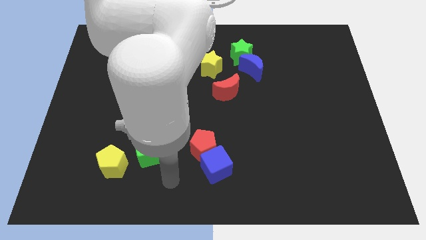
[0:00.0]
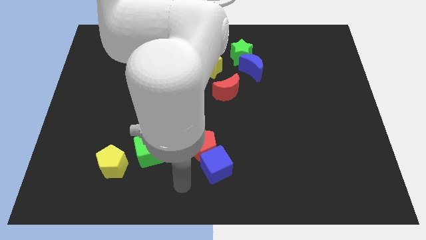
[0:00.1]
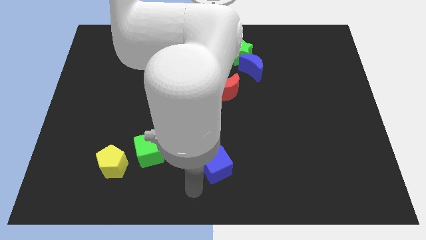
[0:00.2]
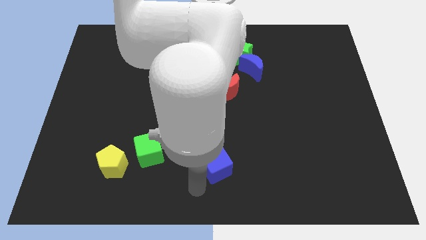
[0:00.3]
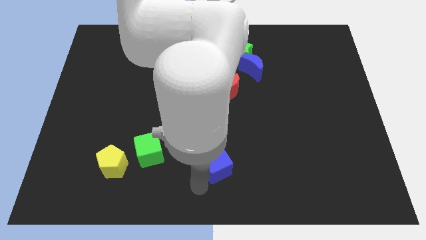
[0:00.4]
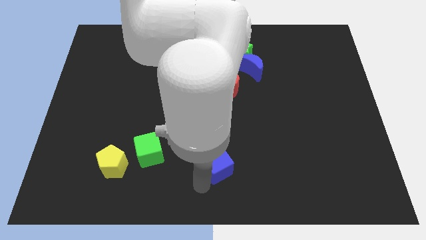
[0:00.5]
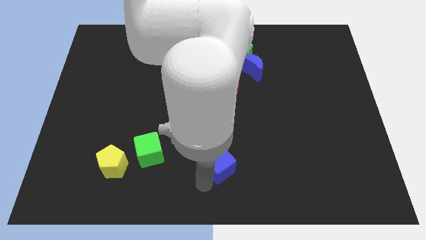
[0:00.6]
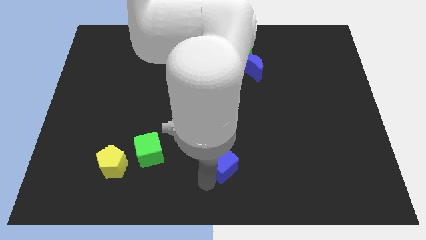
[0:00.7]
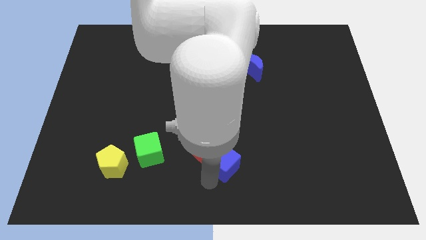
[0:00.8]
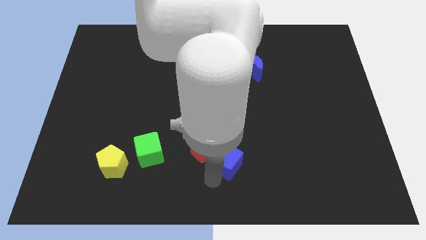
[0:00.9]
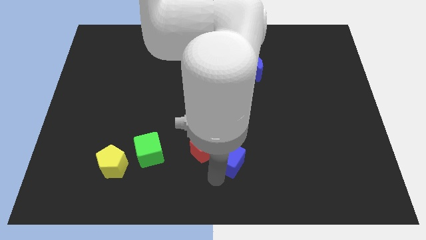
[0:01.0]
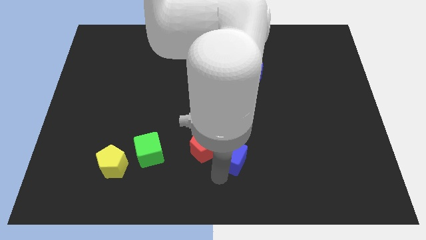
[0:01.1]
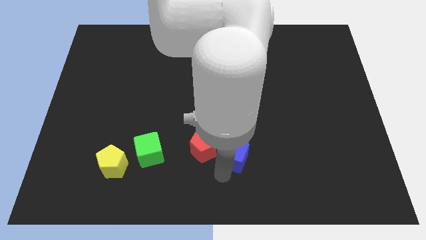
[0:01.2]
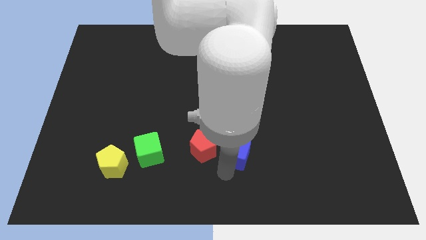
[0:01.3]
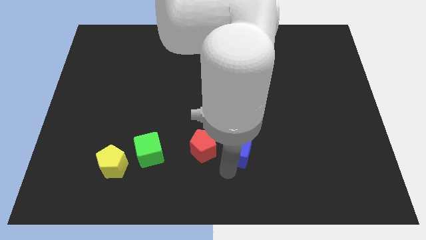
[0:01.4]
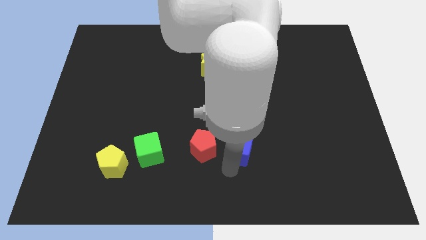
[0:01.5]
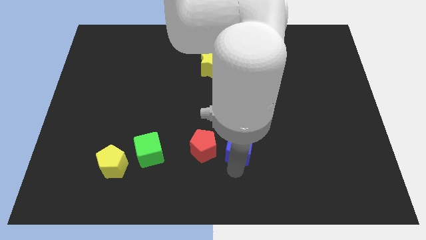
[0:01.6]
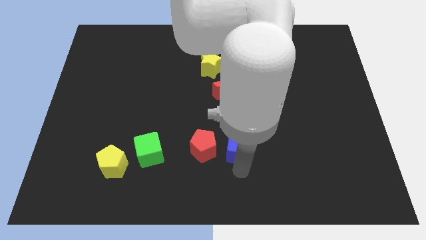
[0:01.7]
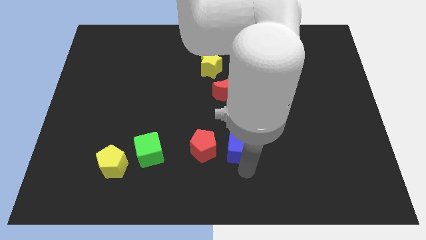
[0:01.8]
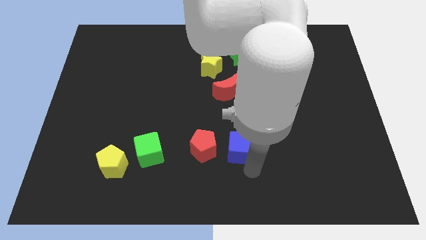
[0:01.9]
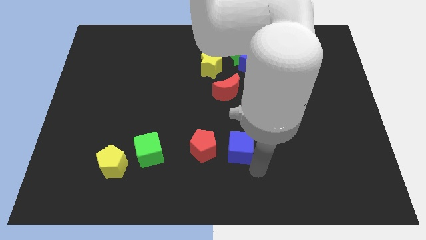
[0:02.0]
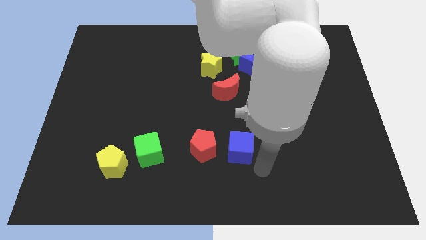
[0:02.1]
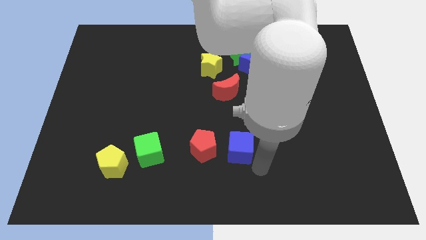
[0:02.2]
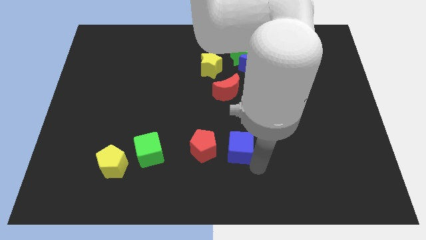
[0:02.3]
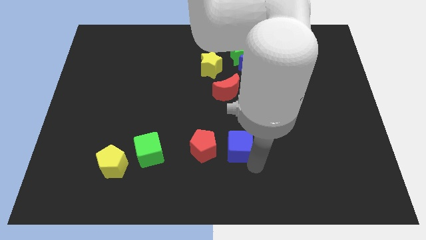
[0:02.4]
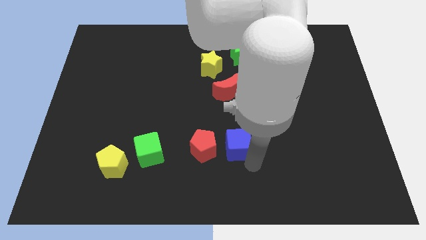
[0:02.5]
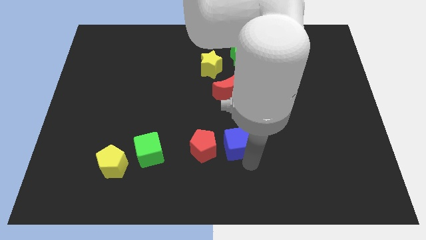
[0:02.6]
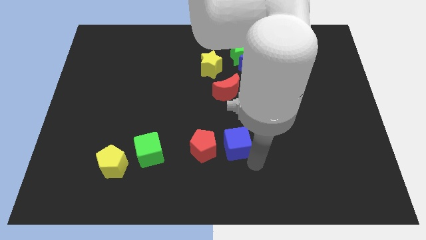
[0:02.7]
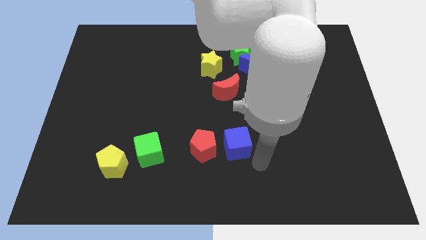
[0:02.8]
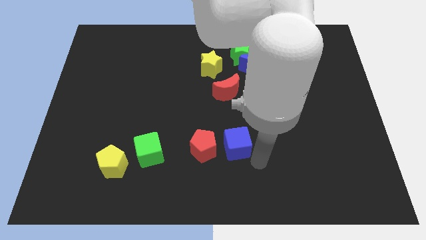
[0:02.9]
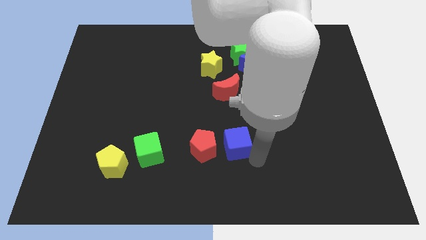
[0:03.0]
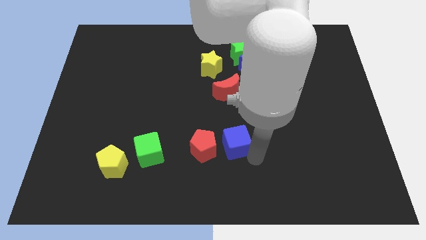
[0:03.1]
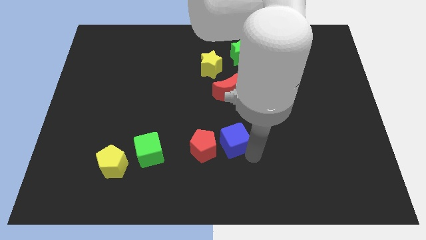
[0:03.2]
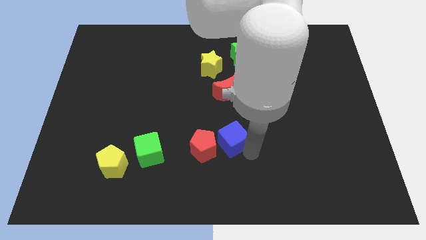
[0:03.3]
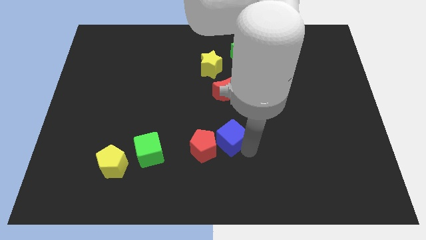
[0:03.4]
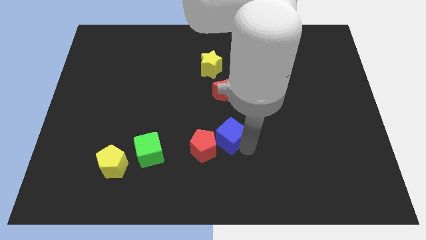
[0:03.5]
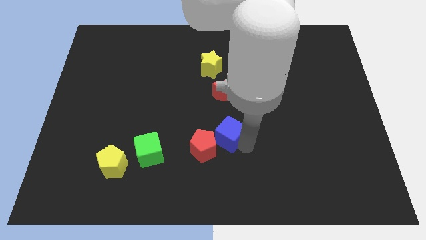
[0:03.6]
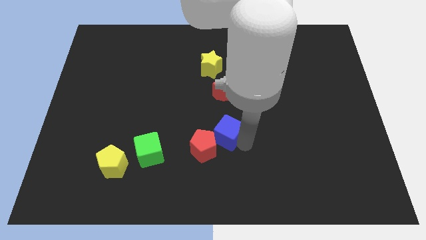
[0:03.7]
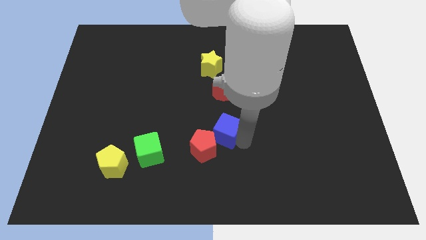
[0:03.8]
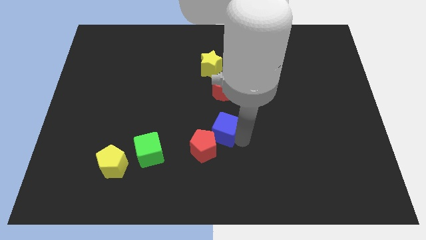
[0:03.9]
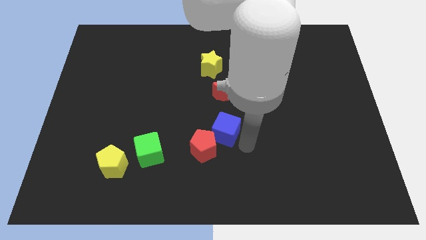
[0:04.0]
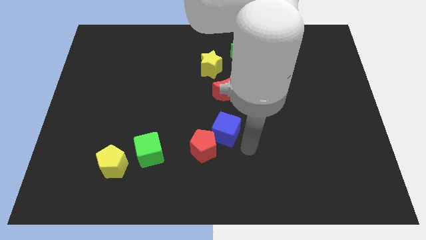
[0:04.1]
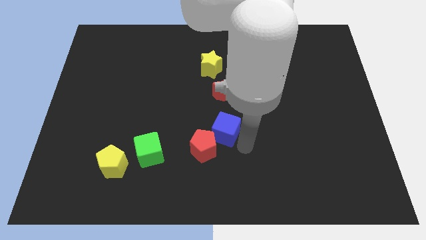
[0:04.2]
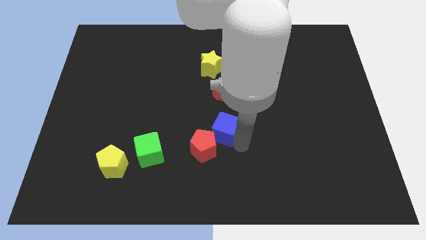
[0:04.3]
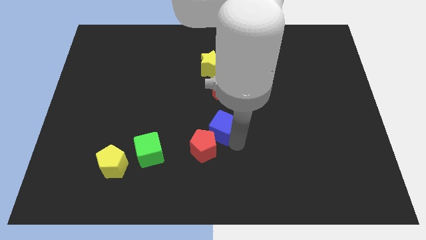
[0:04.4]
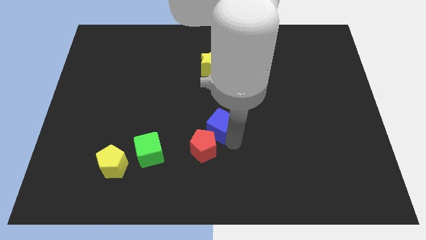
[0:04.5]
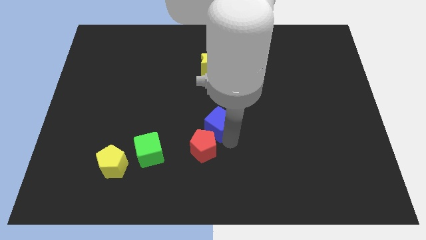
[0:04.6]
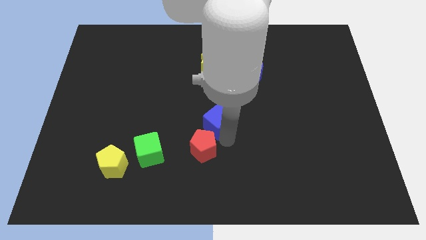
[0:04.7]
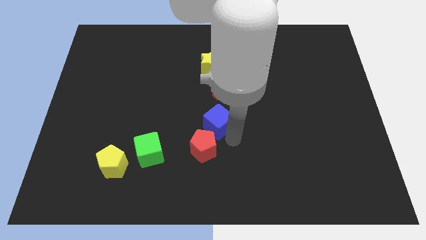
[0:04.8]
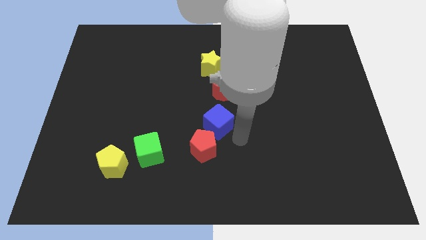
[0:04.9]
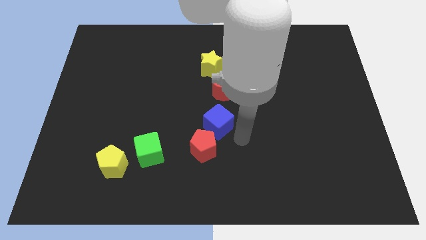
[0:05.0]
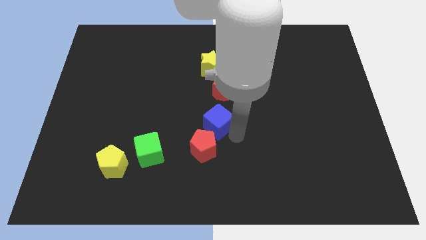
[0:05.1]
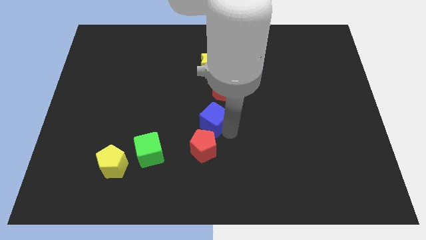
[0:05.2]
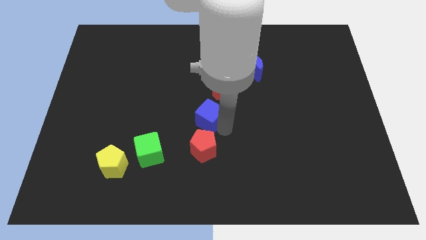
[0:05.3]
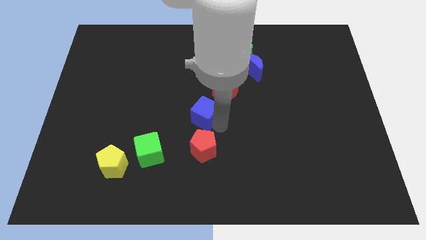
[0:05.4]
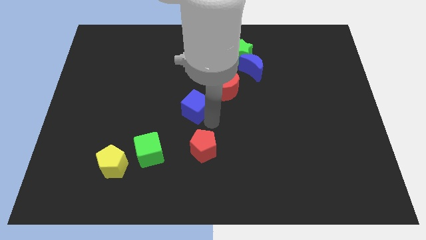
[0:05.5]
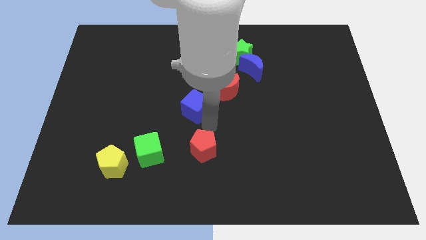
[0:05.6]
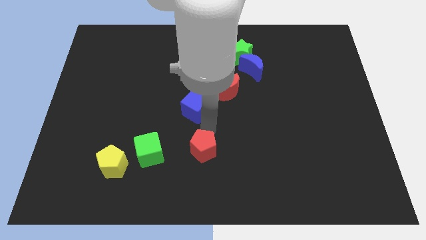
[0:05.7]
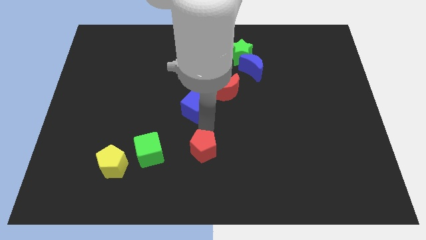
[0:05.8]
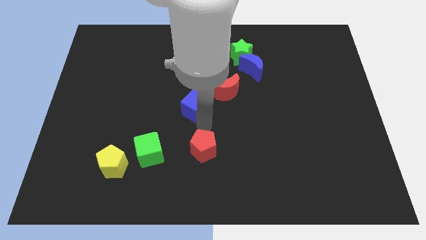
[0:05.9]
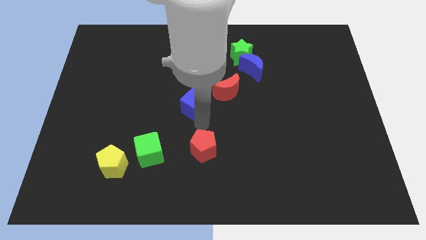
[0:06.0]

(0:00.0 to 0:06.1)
slide the blue cube to the left of the red moon

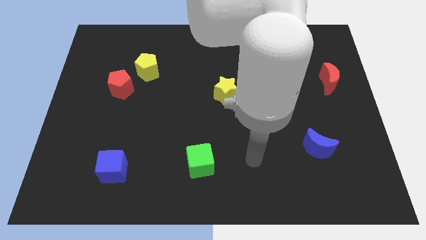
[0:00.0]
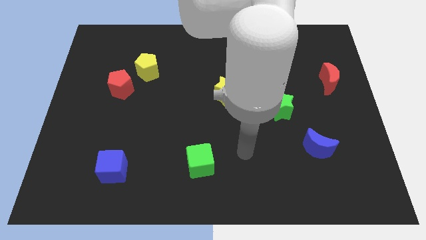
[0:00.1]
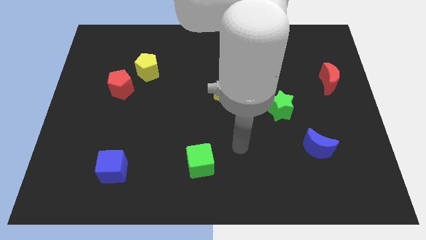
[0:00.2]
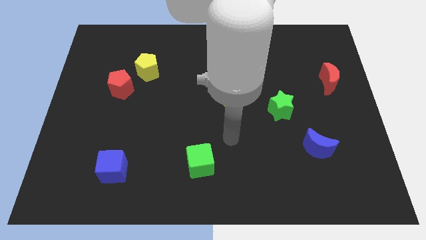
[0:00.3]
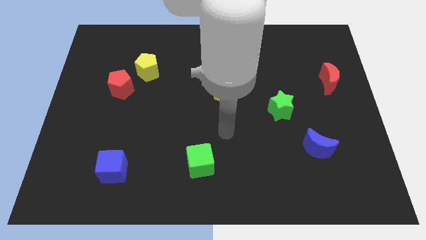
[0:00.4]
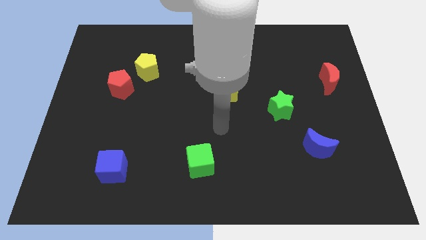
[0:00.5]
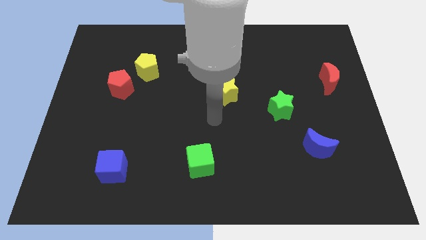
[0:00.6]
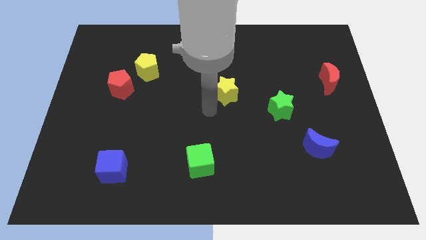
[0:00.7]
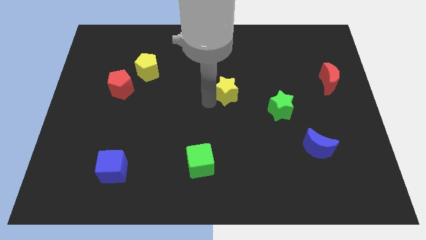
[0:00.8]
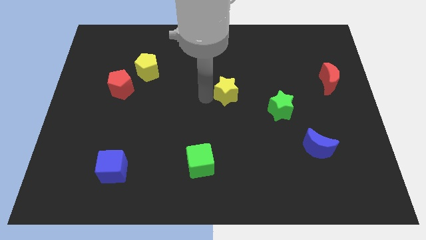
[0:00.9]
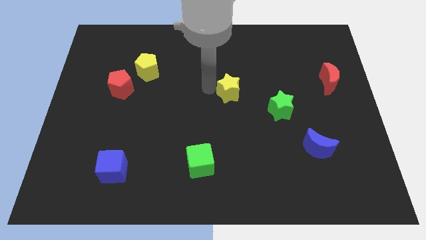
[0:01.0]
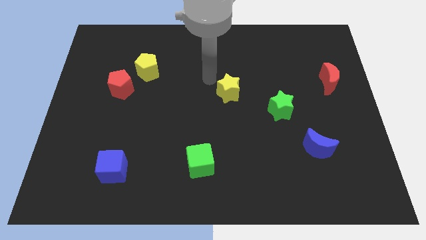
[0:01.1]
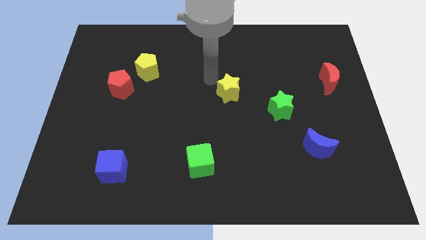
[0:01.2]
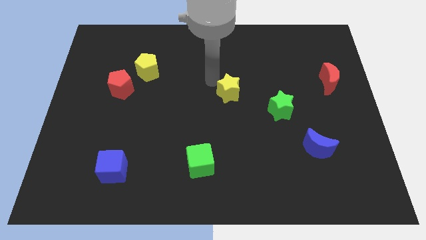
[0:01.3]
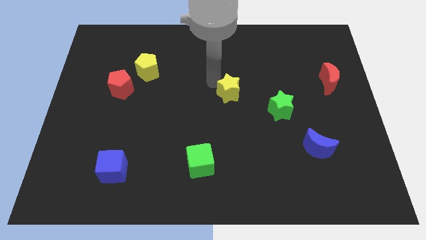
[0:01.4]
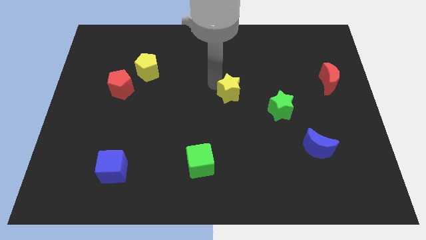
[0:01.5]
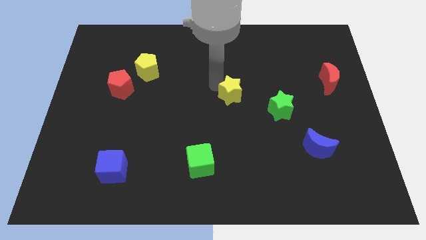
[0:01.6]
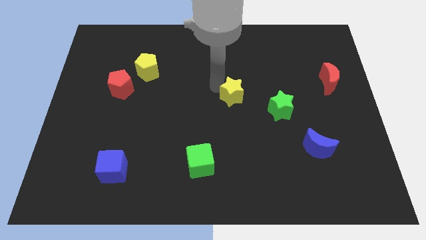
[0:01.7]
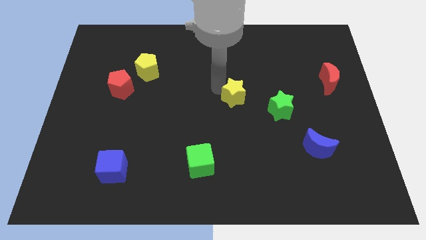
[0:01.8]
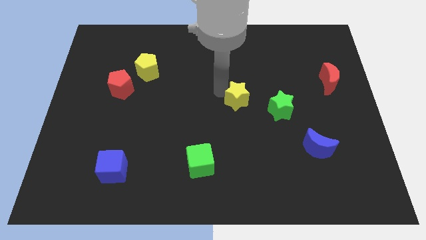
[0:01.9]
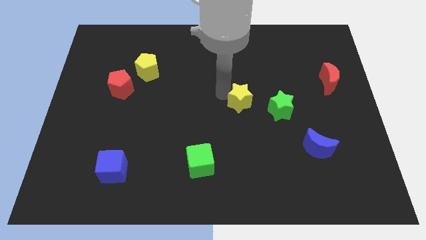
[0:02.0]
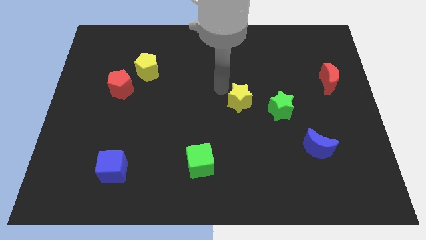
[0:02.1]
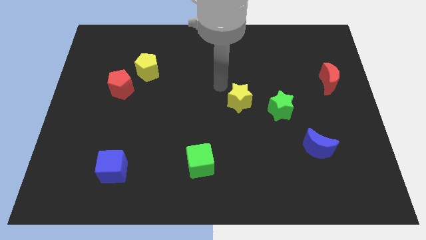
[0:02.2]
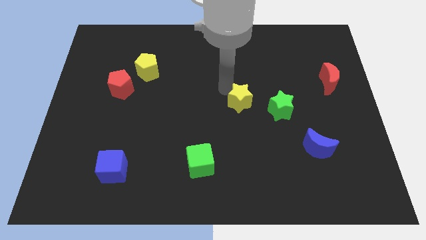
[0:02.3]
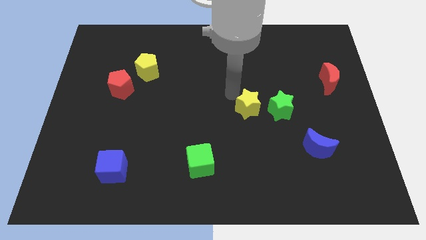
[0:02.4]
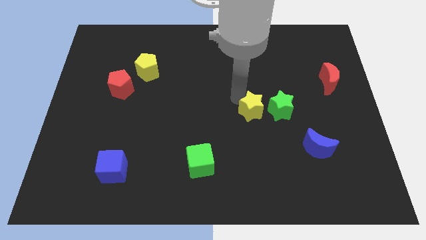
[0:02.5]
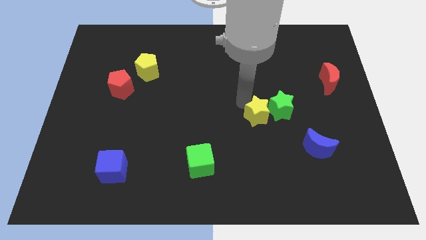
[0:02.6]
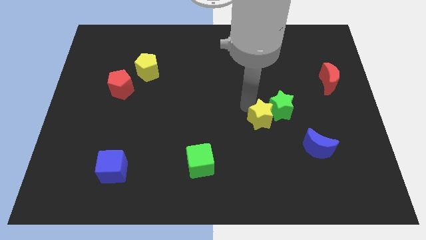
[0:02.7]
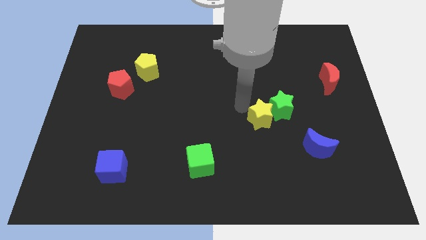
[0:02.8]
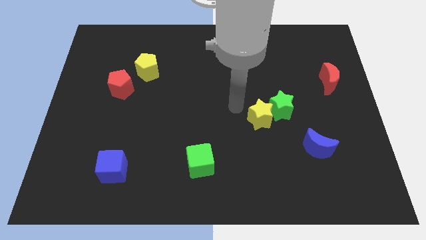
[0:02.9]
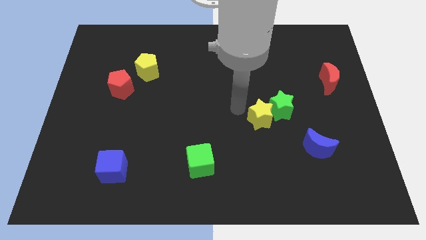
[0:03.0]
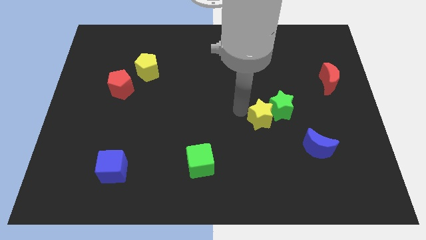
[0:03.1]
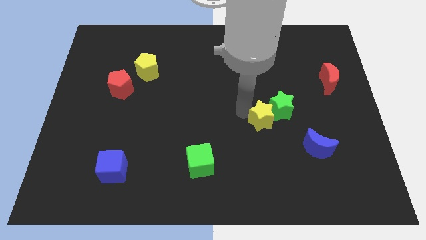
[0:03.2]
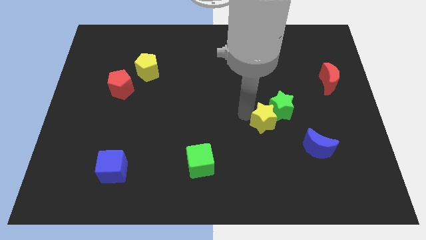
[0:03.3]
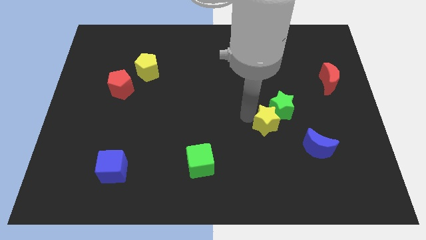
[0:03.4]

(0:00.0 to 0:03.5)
put the yellow star to the top left side of the blue moon
